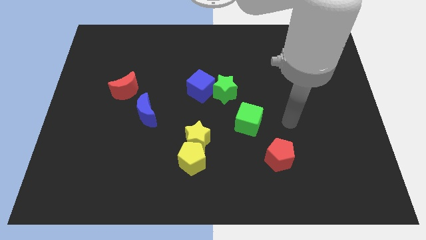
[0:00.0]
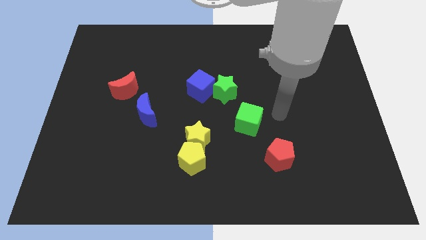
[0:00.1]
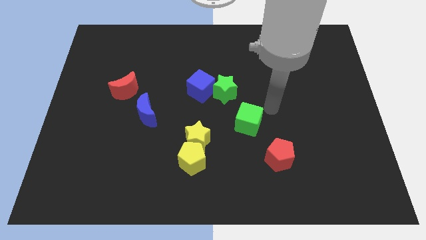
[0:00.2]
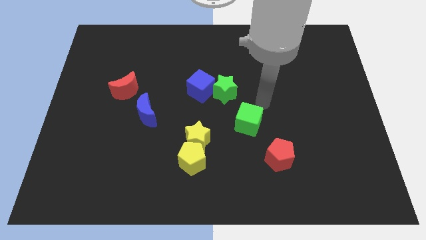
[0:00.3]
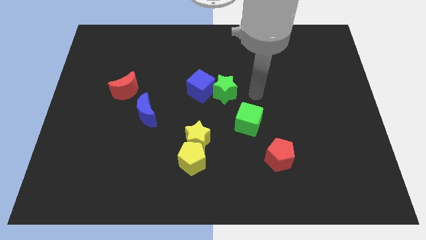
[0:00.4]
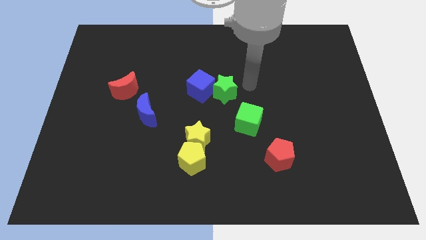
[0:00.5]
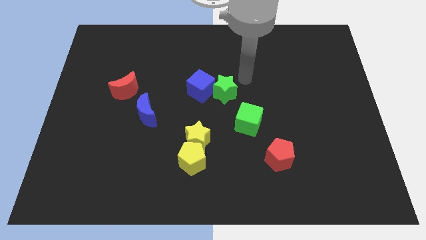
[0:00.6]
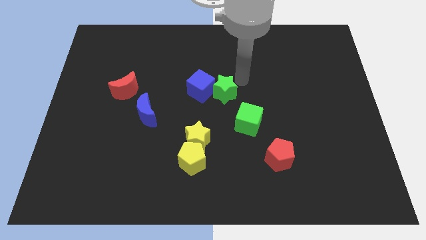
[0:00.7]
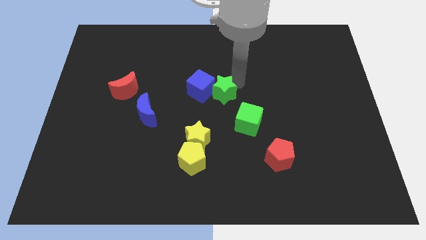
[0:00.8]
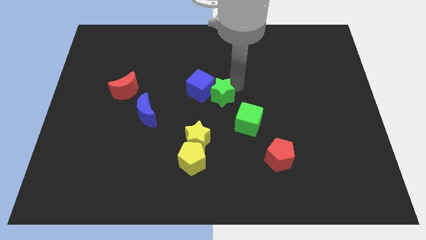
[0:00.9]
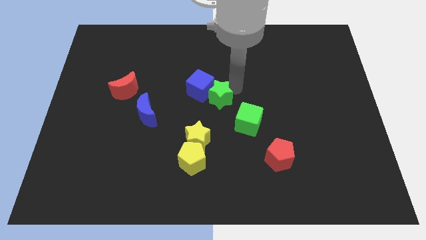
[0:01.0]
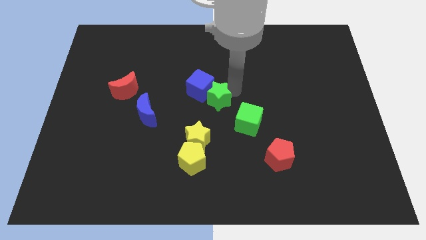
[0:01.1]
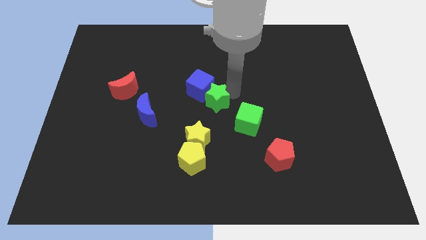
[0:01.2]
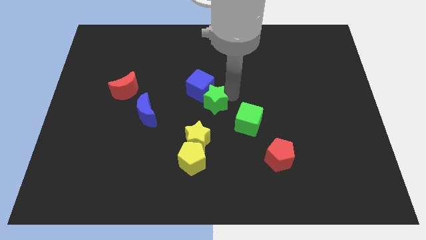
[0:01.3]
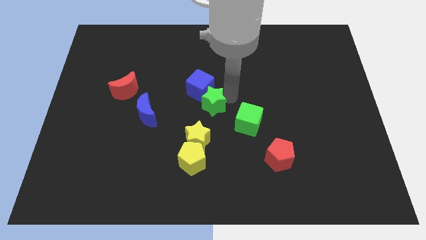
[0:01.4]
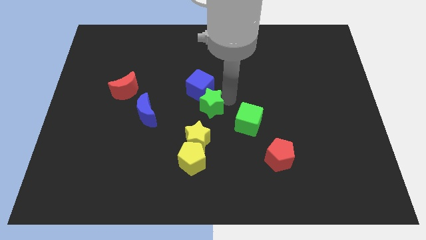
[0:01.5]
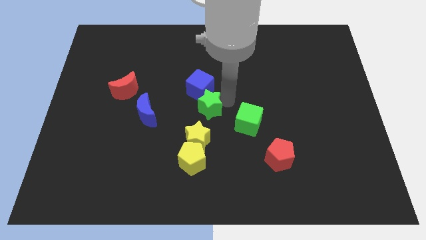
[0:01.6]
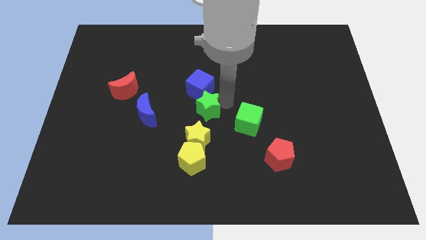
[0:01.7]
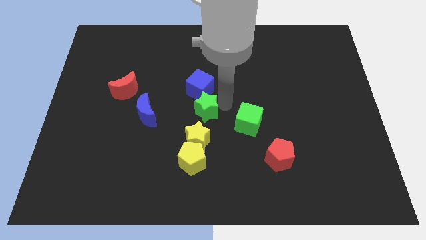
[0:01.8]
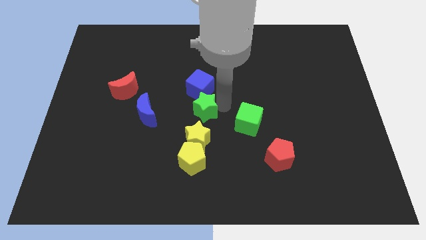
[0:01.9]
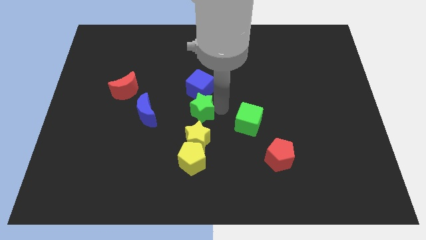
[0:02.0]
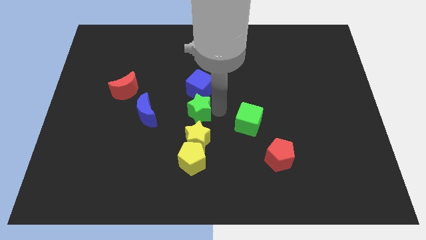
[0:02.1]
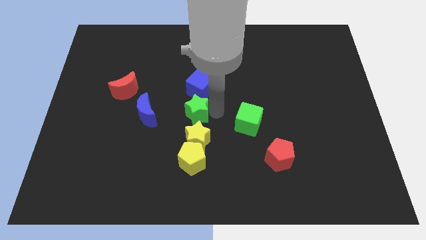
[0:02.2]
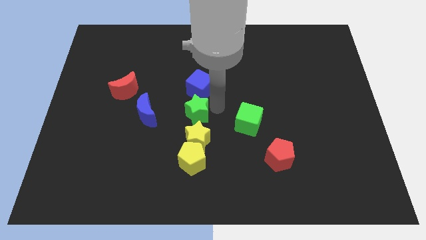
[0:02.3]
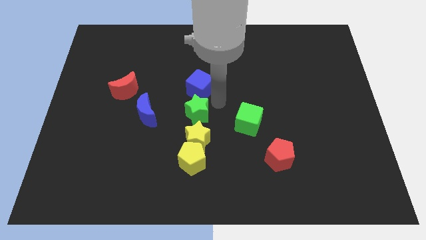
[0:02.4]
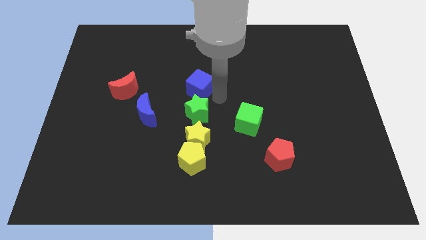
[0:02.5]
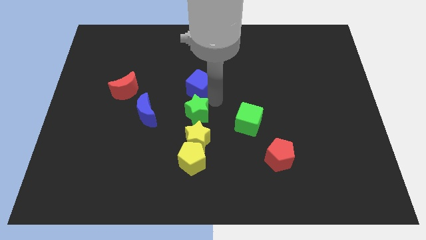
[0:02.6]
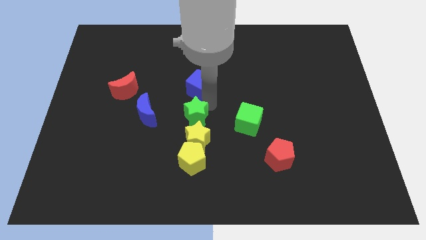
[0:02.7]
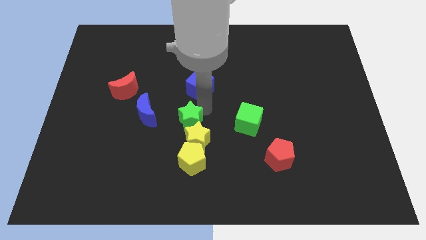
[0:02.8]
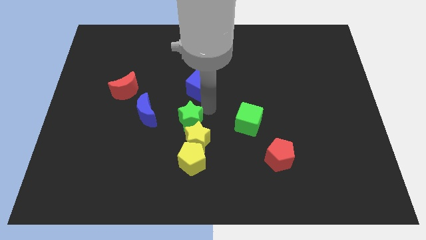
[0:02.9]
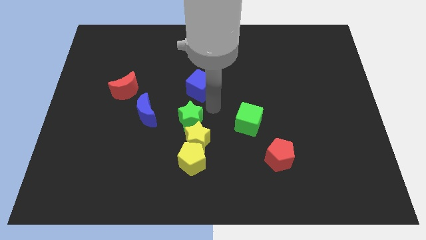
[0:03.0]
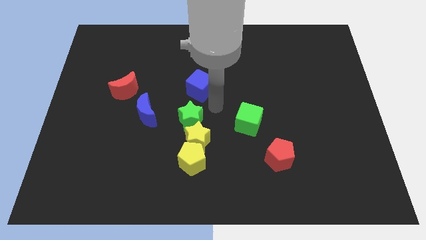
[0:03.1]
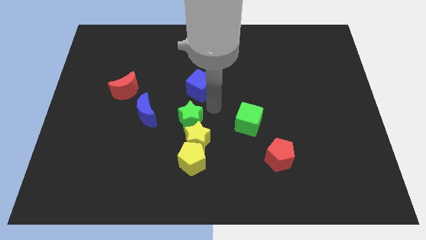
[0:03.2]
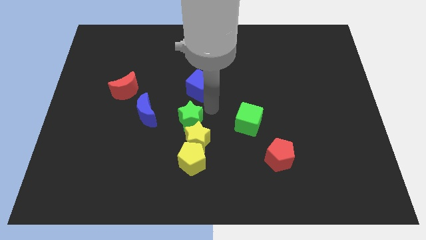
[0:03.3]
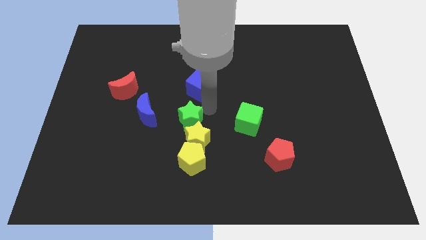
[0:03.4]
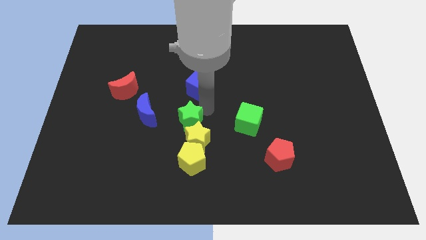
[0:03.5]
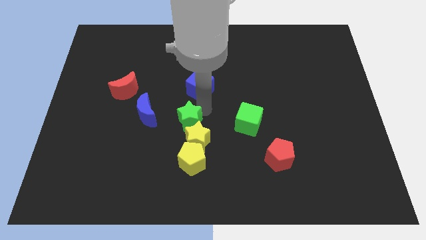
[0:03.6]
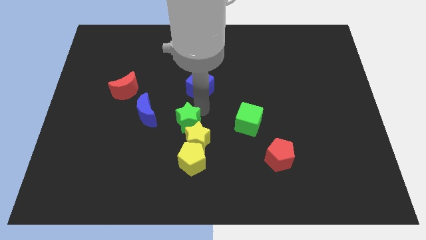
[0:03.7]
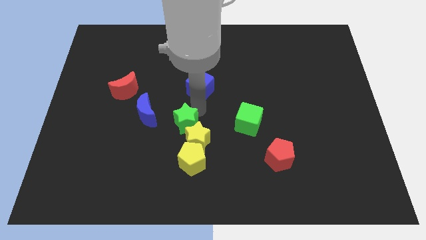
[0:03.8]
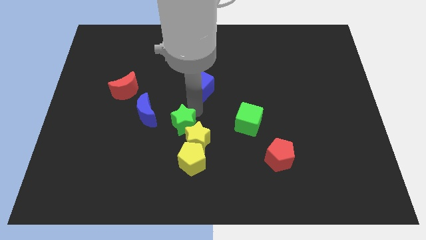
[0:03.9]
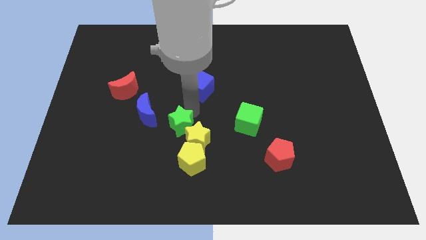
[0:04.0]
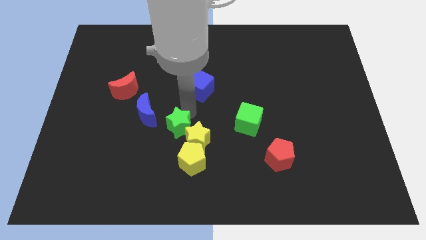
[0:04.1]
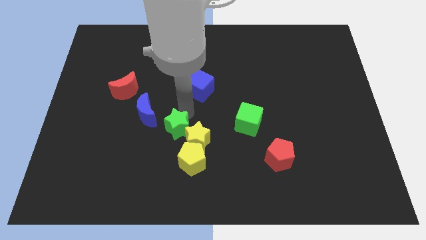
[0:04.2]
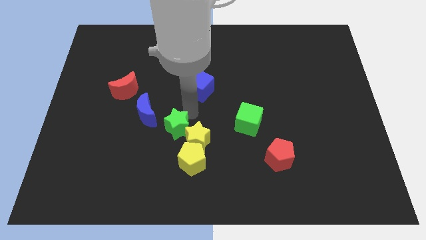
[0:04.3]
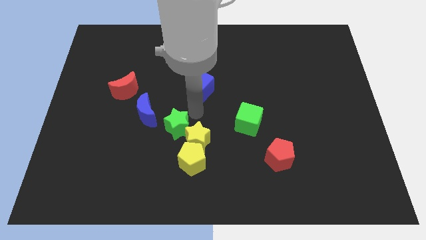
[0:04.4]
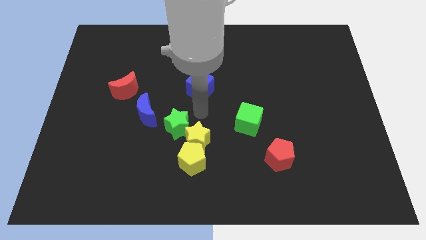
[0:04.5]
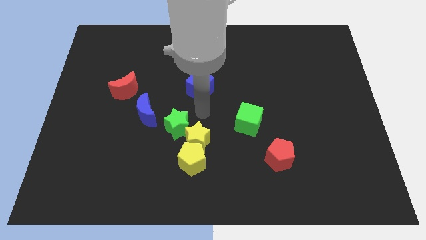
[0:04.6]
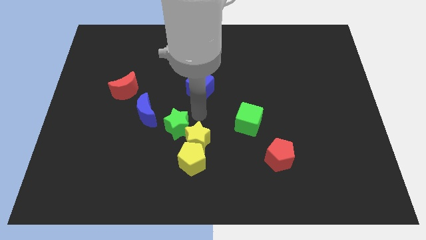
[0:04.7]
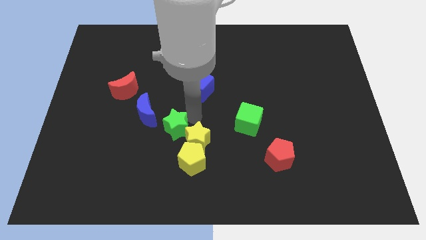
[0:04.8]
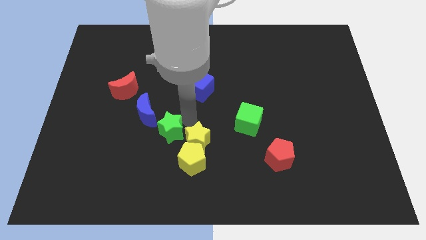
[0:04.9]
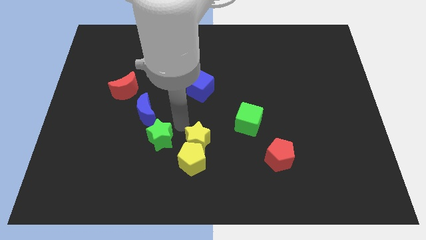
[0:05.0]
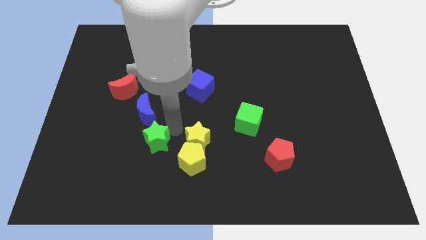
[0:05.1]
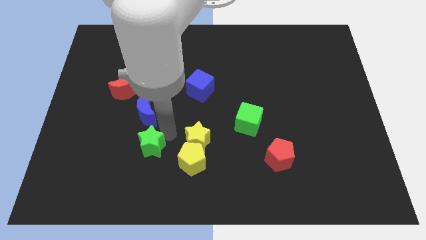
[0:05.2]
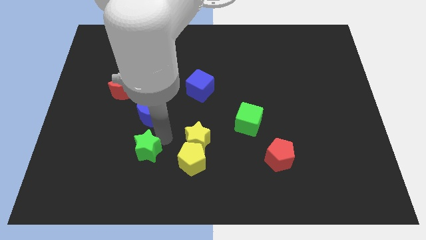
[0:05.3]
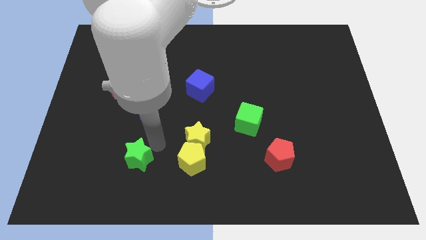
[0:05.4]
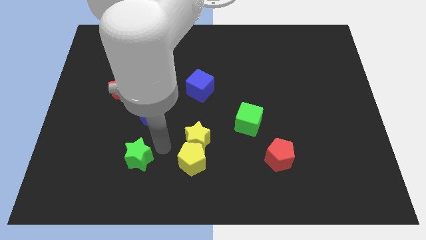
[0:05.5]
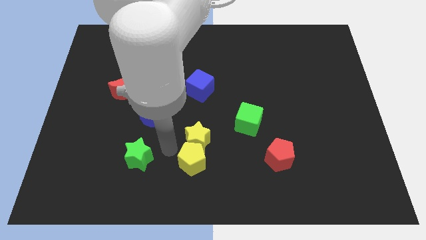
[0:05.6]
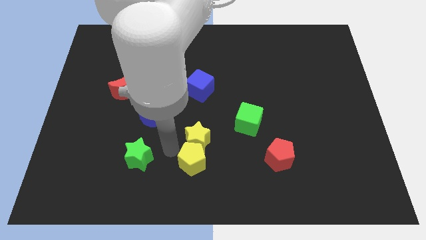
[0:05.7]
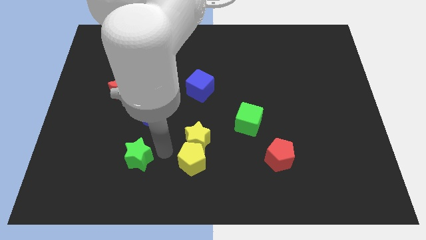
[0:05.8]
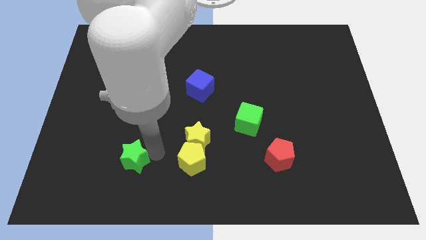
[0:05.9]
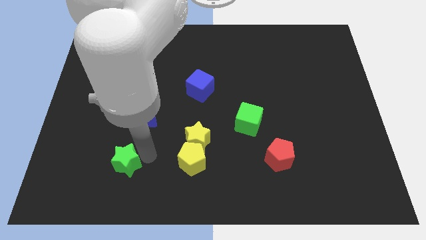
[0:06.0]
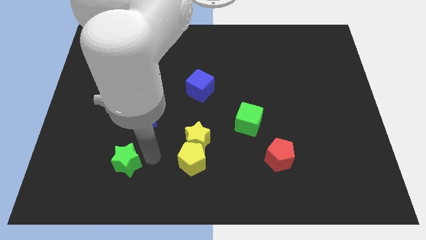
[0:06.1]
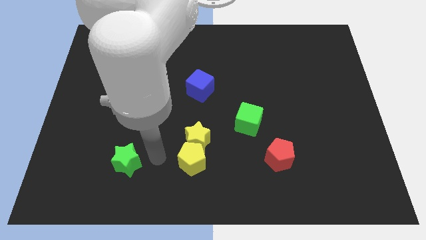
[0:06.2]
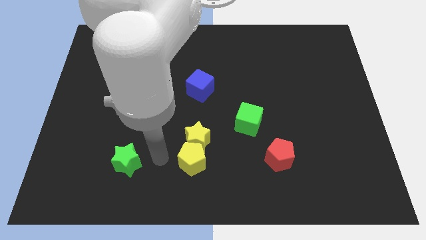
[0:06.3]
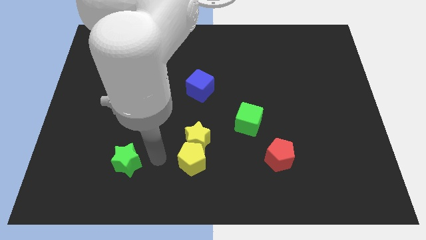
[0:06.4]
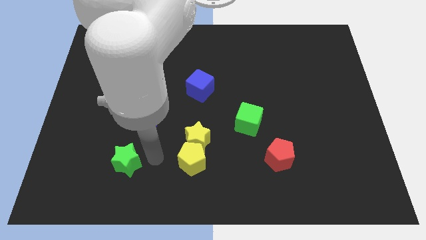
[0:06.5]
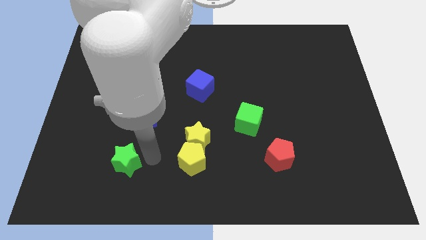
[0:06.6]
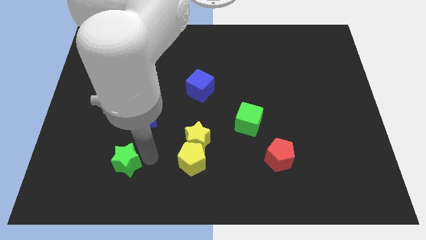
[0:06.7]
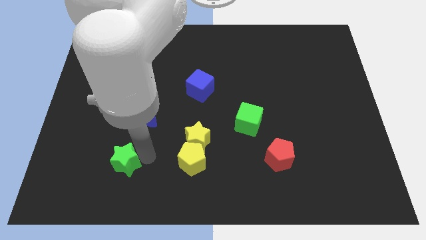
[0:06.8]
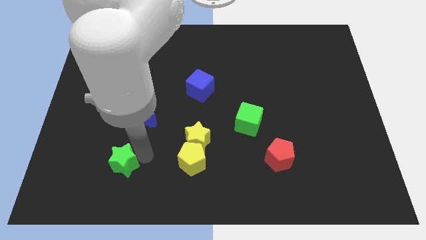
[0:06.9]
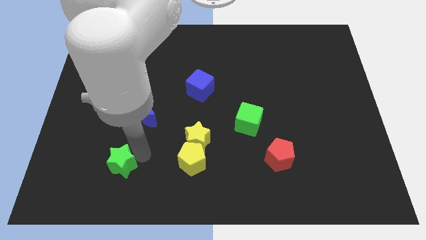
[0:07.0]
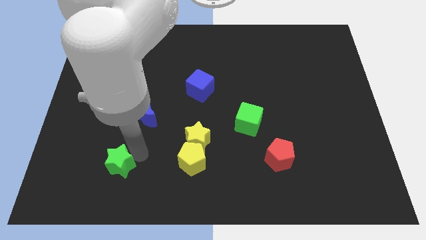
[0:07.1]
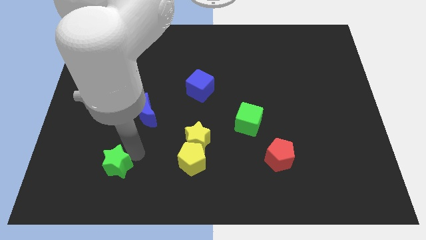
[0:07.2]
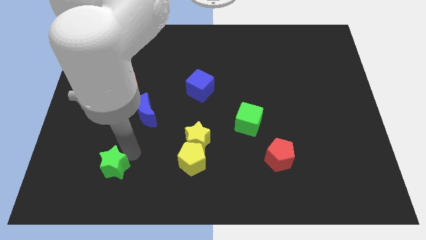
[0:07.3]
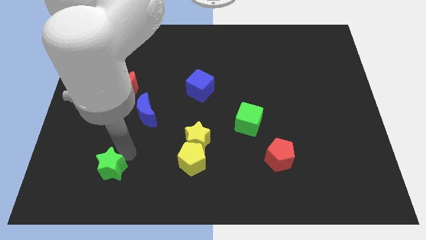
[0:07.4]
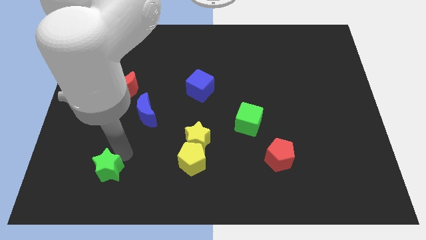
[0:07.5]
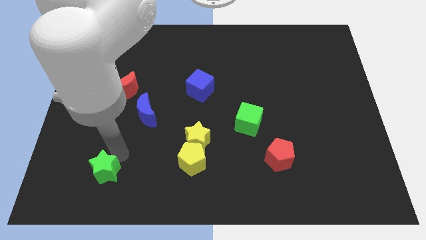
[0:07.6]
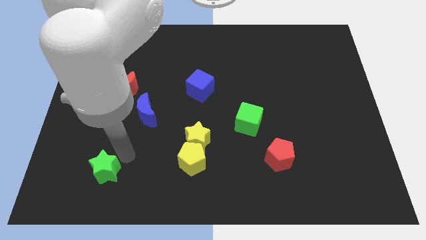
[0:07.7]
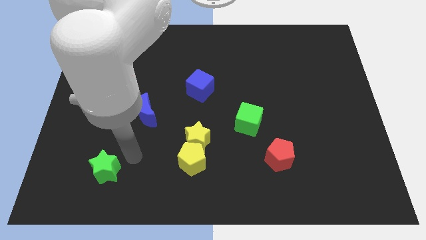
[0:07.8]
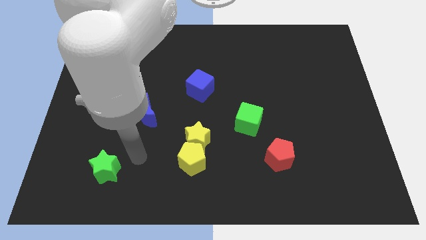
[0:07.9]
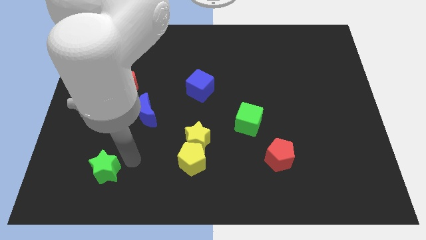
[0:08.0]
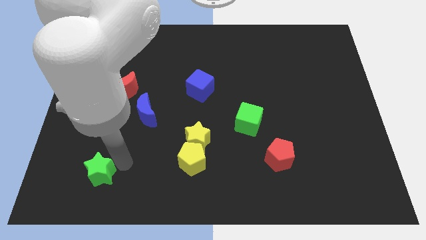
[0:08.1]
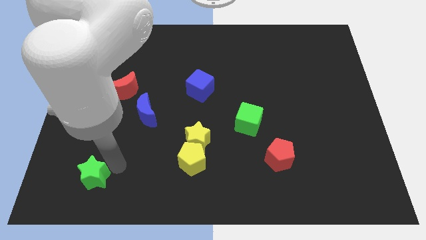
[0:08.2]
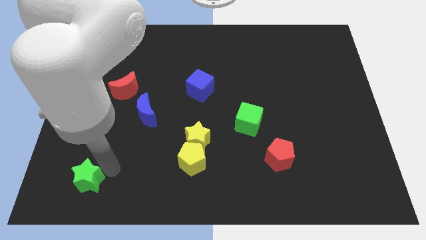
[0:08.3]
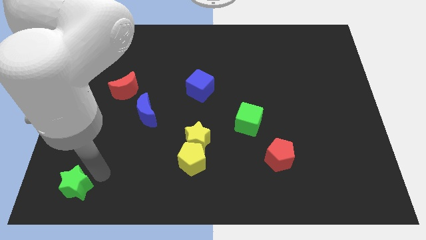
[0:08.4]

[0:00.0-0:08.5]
put the green star to the bottom left of the board
